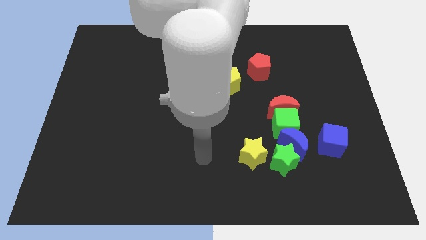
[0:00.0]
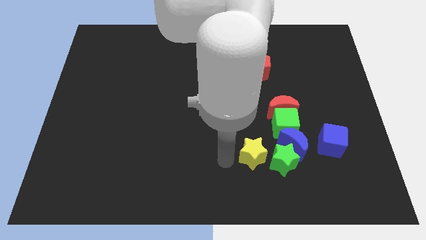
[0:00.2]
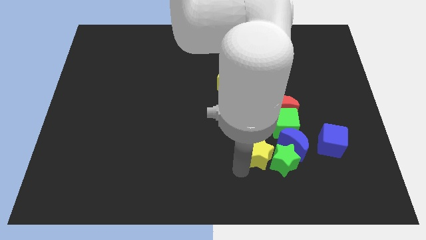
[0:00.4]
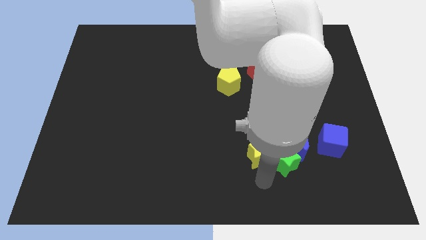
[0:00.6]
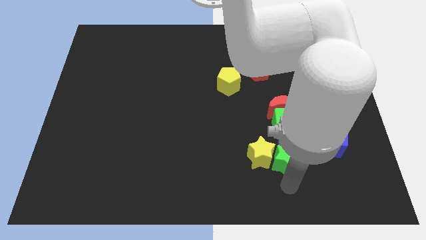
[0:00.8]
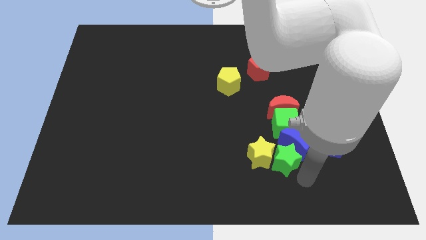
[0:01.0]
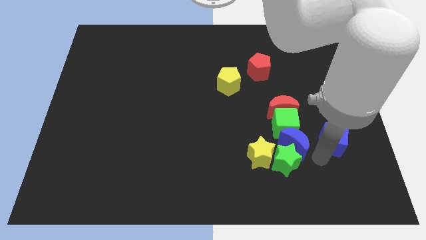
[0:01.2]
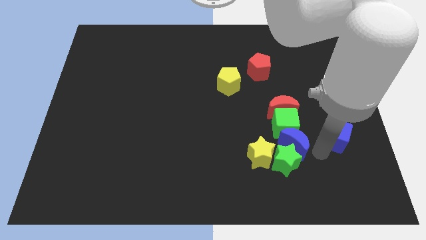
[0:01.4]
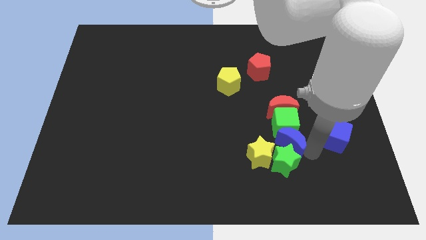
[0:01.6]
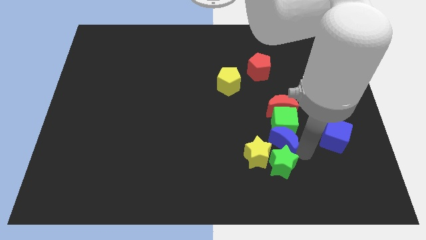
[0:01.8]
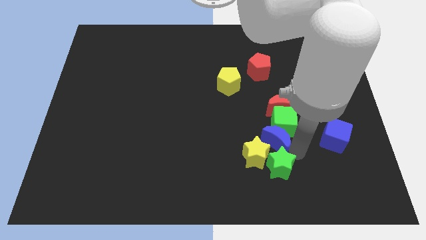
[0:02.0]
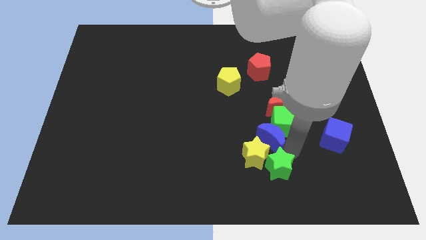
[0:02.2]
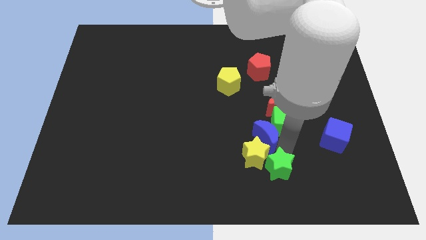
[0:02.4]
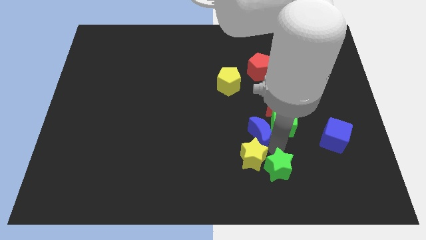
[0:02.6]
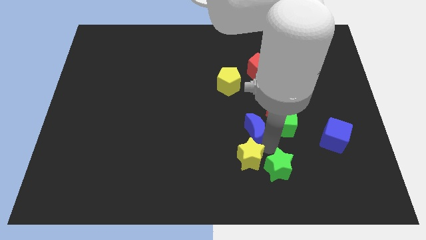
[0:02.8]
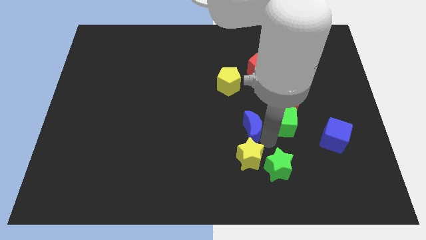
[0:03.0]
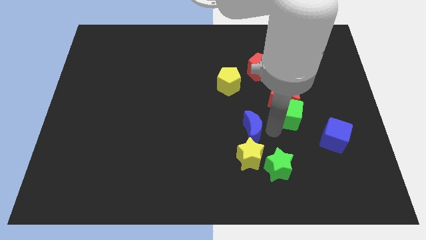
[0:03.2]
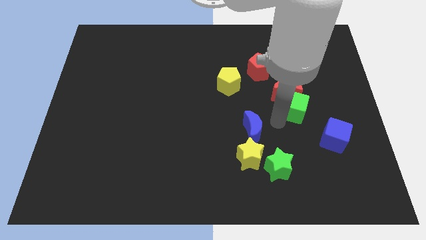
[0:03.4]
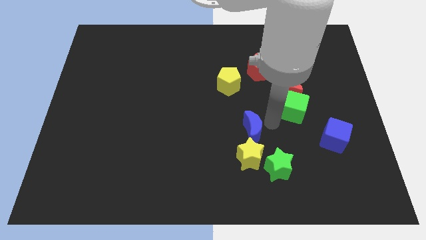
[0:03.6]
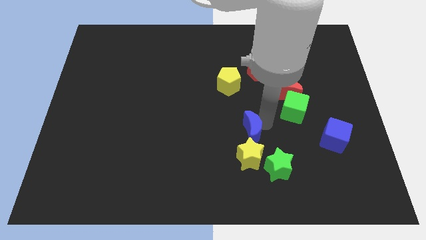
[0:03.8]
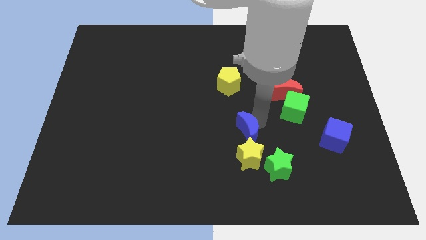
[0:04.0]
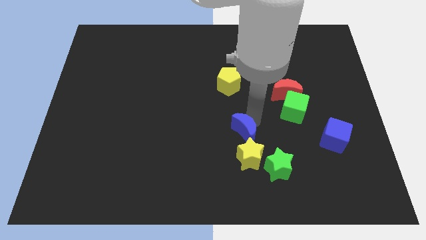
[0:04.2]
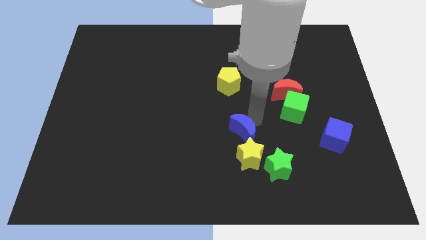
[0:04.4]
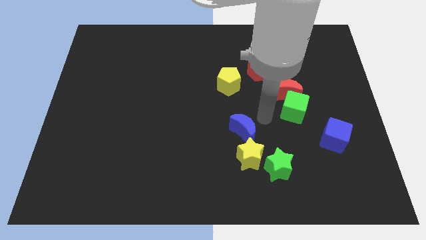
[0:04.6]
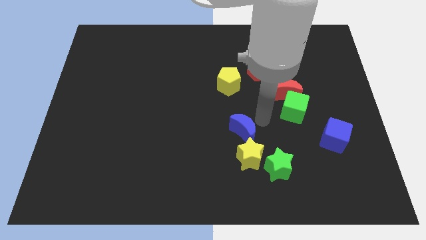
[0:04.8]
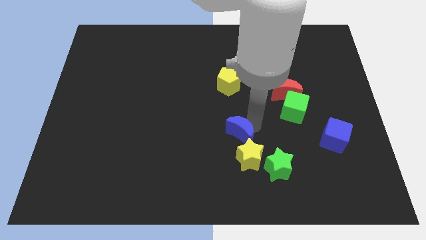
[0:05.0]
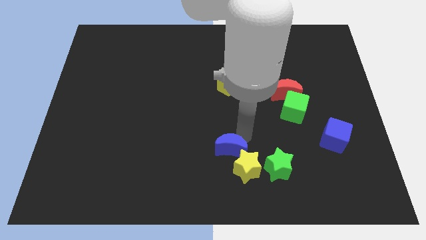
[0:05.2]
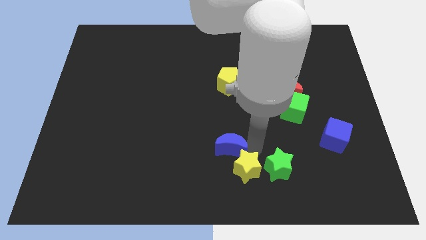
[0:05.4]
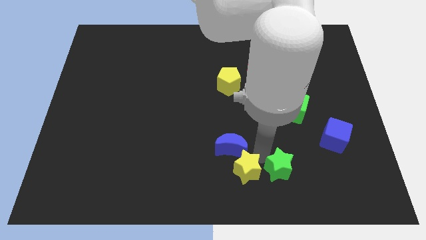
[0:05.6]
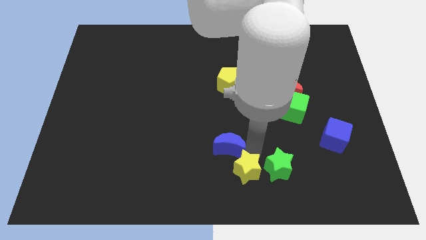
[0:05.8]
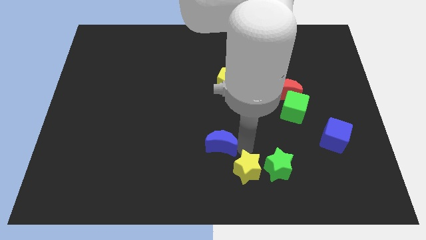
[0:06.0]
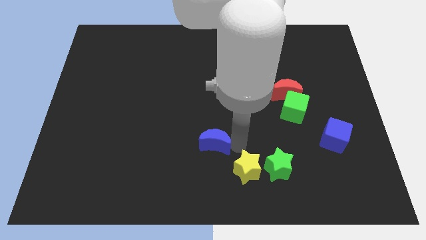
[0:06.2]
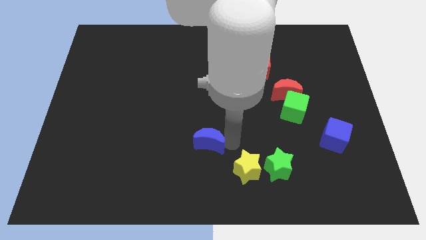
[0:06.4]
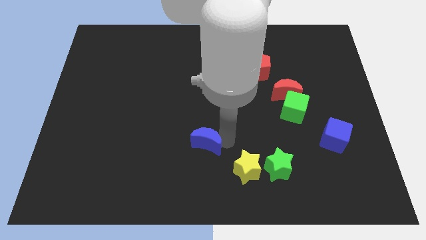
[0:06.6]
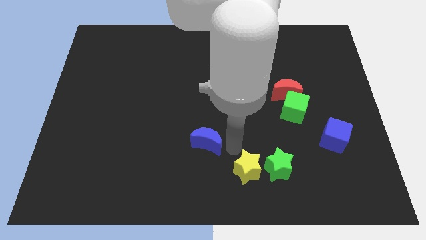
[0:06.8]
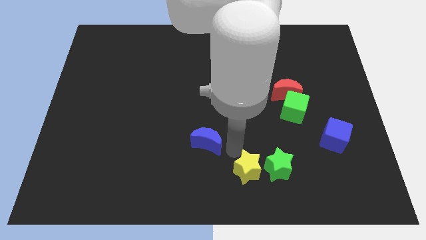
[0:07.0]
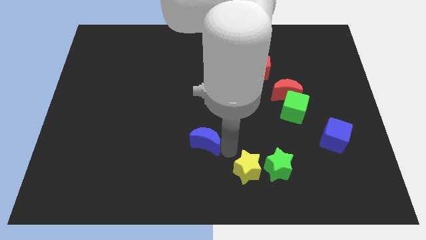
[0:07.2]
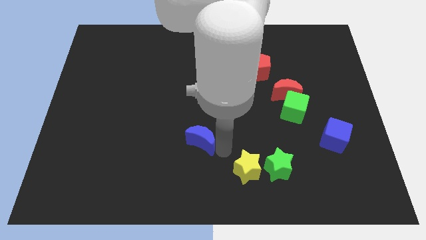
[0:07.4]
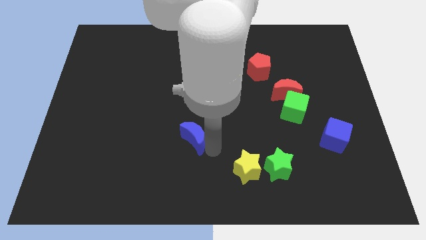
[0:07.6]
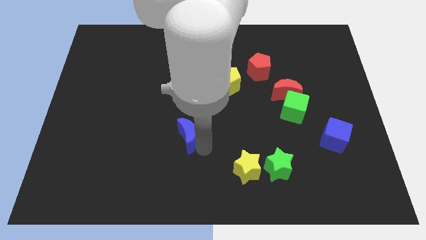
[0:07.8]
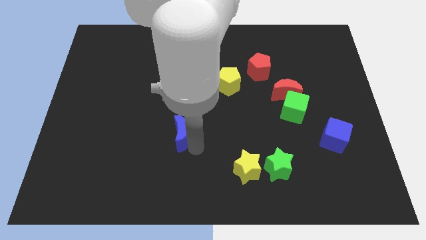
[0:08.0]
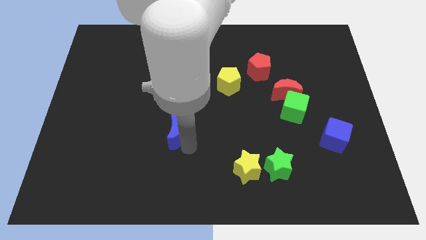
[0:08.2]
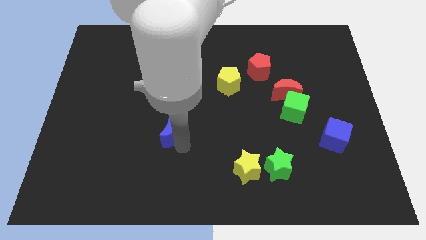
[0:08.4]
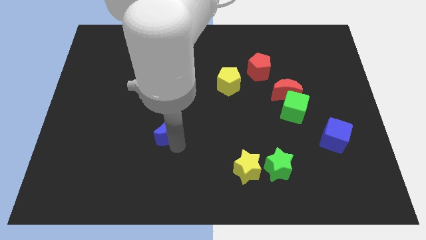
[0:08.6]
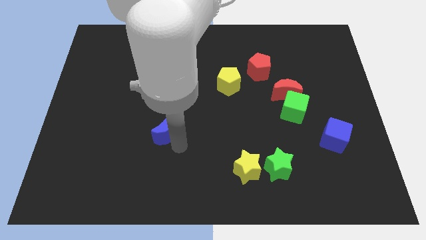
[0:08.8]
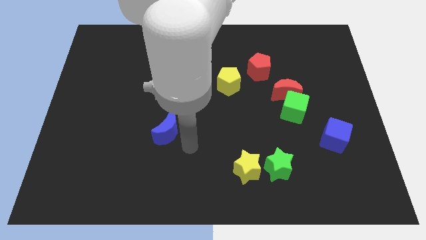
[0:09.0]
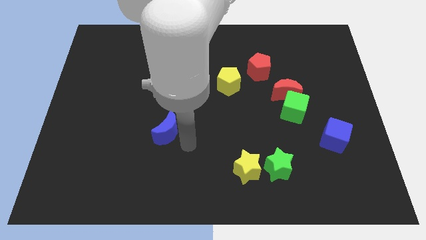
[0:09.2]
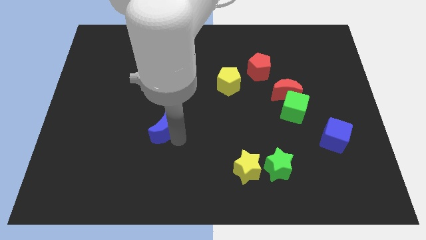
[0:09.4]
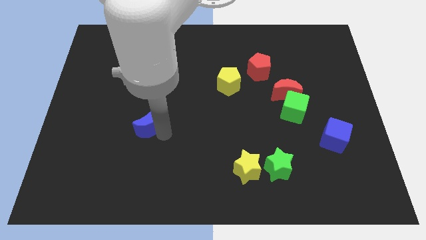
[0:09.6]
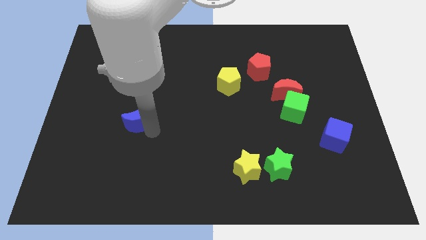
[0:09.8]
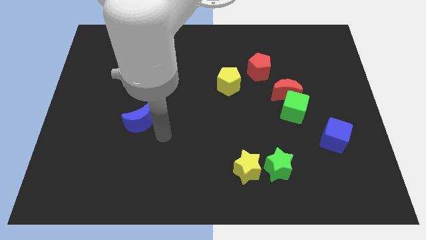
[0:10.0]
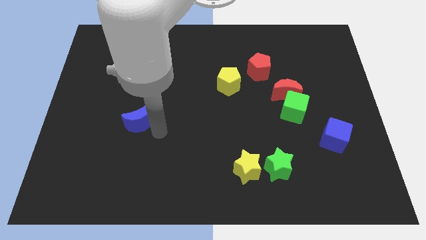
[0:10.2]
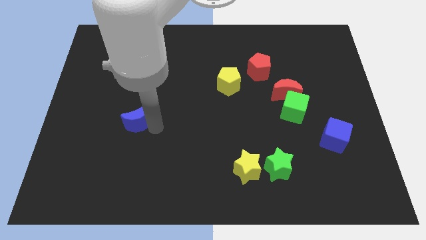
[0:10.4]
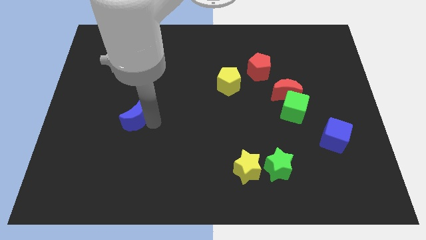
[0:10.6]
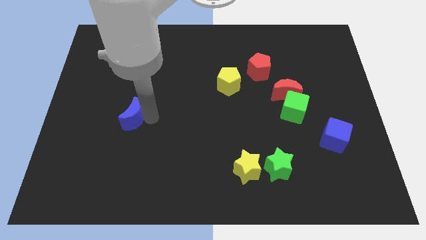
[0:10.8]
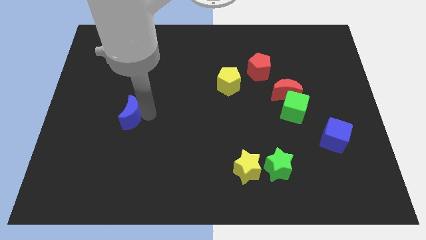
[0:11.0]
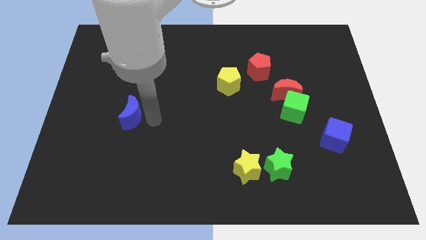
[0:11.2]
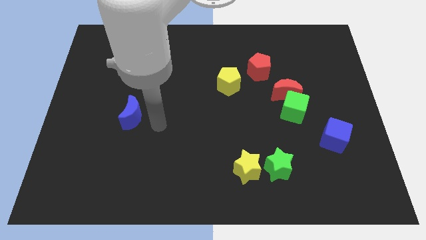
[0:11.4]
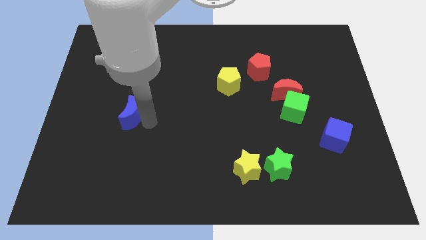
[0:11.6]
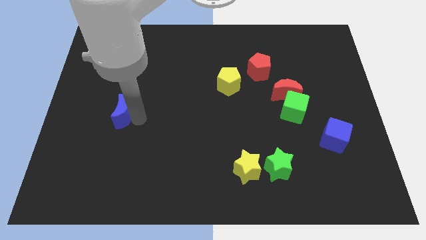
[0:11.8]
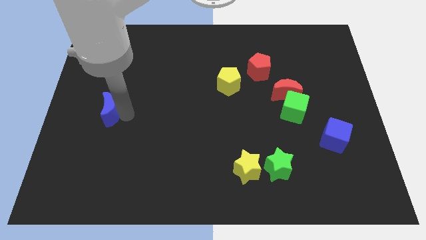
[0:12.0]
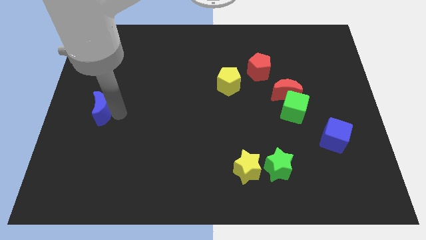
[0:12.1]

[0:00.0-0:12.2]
push the blue moon to the left side

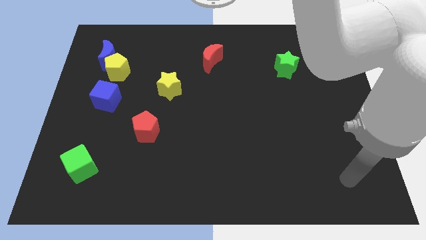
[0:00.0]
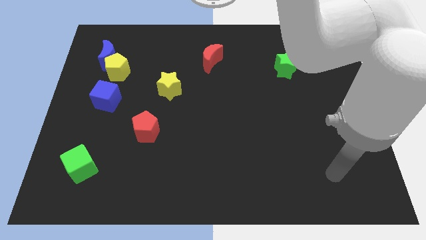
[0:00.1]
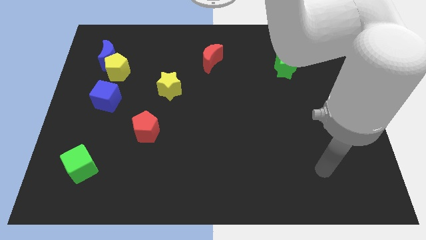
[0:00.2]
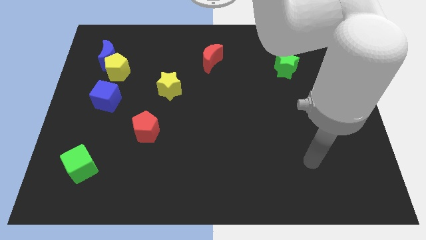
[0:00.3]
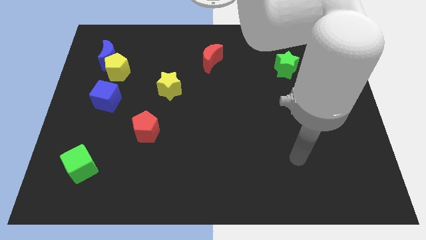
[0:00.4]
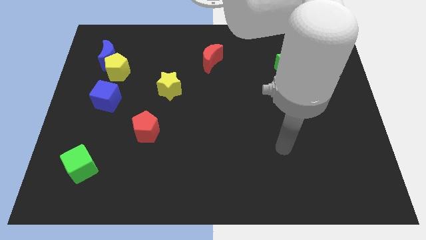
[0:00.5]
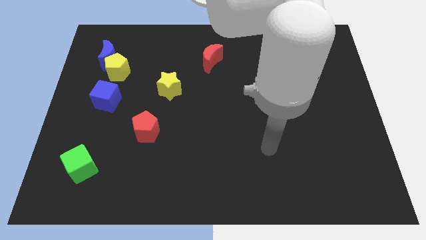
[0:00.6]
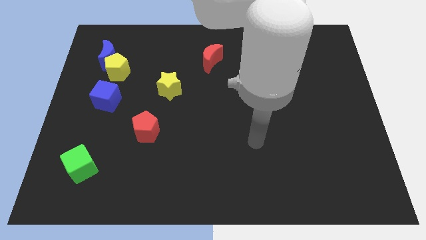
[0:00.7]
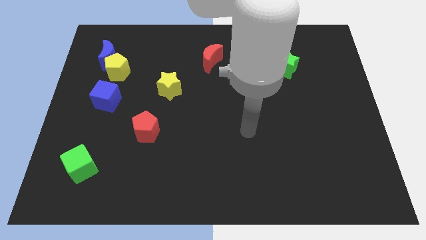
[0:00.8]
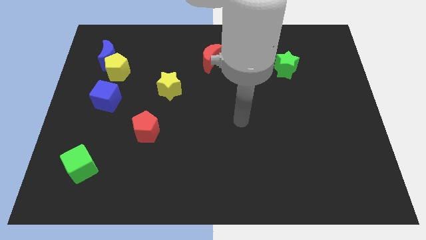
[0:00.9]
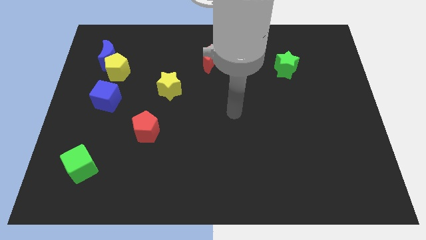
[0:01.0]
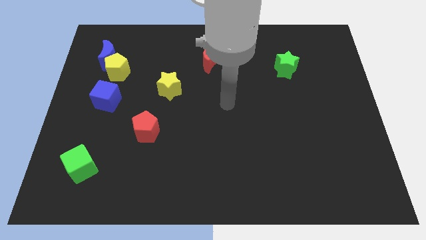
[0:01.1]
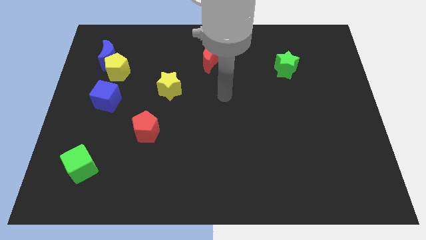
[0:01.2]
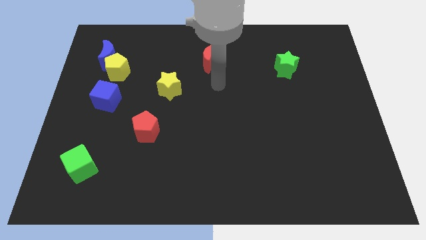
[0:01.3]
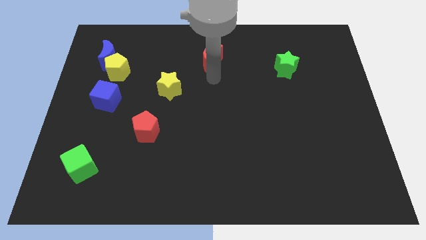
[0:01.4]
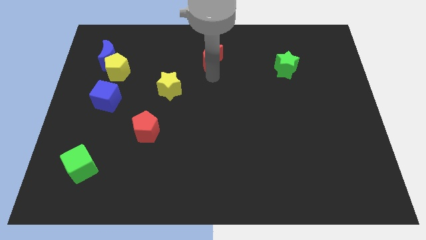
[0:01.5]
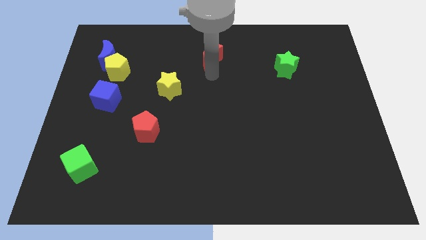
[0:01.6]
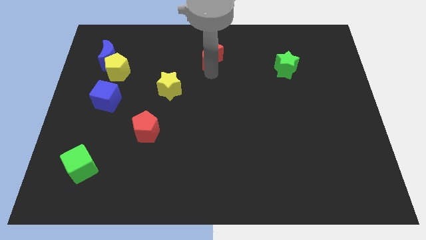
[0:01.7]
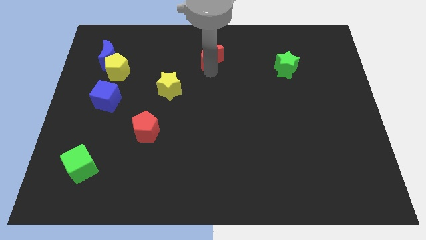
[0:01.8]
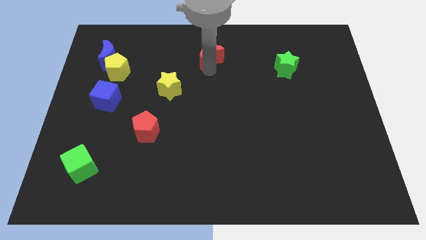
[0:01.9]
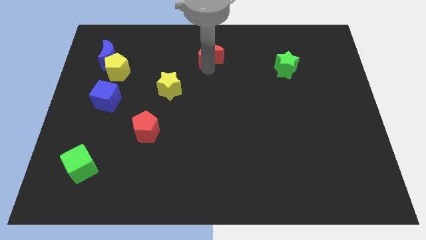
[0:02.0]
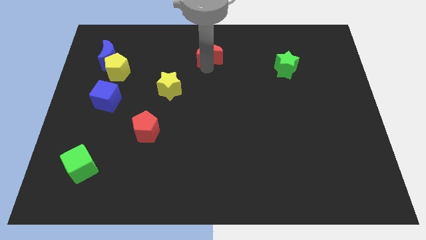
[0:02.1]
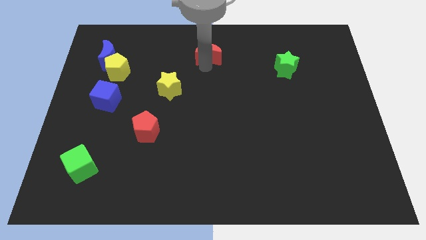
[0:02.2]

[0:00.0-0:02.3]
slide the red moon to the top side
